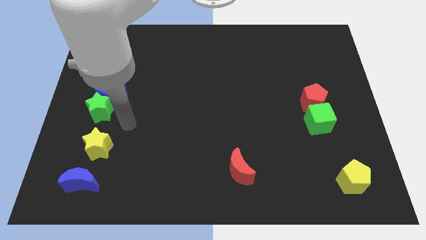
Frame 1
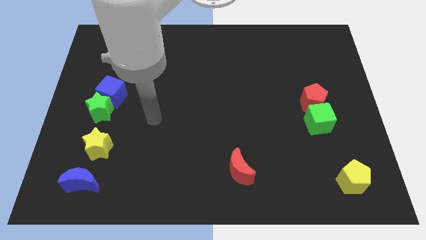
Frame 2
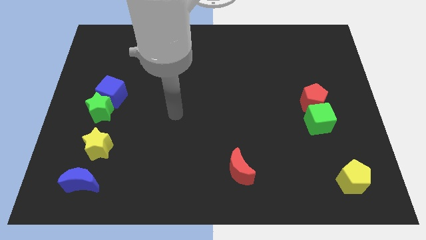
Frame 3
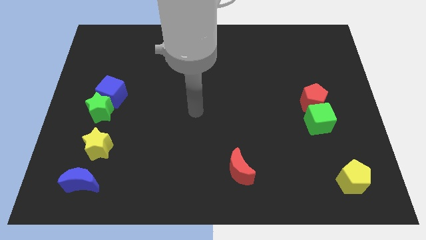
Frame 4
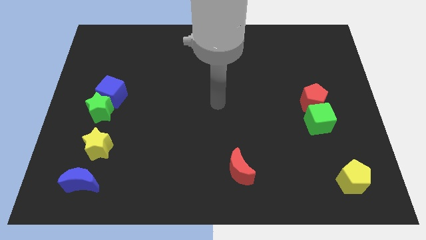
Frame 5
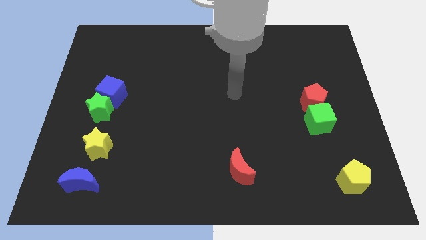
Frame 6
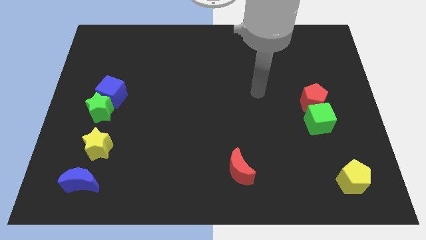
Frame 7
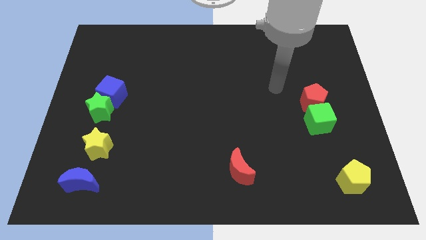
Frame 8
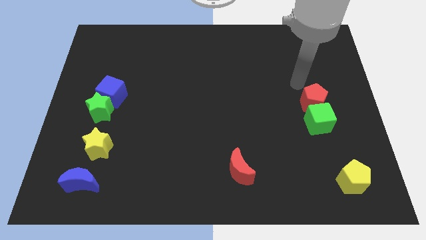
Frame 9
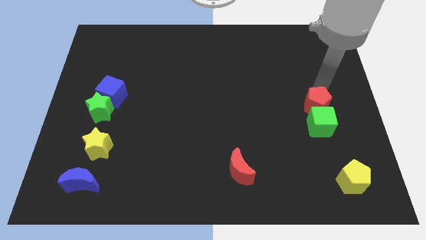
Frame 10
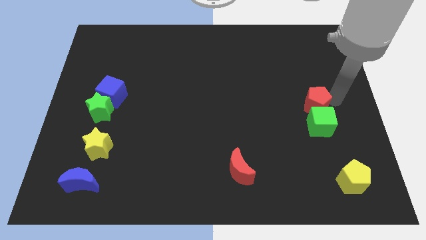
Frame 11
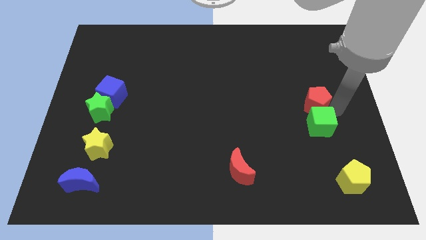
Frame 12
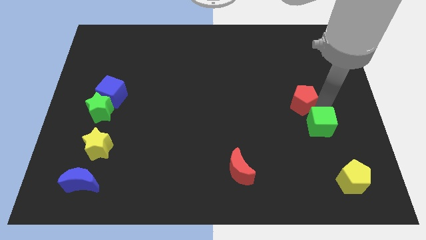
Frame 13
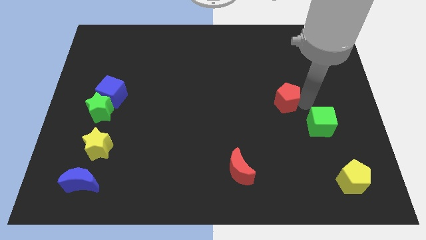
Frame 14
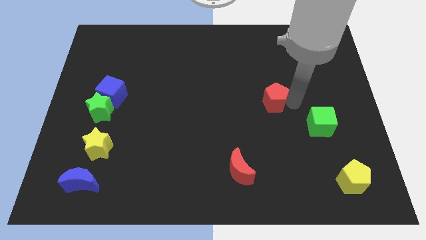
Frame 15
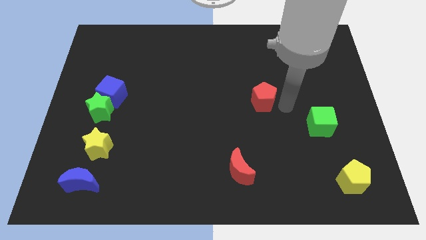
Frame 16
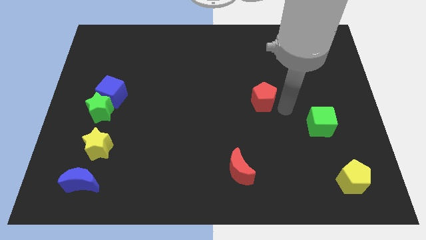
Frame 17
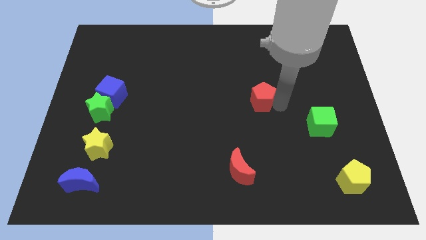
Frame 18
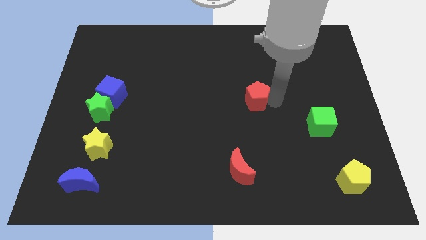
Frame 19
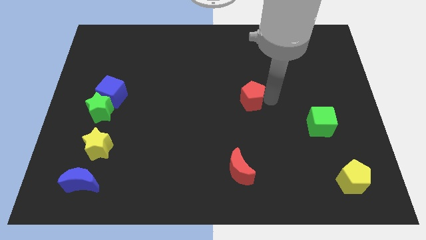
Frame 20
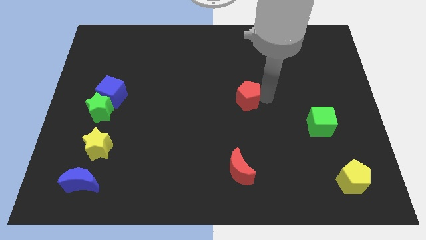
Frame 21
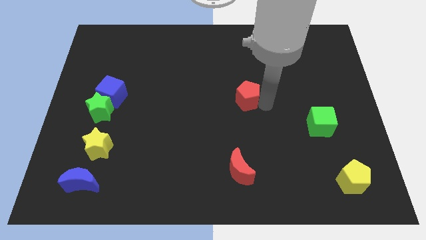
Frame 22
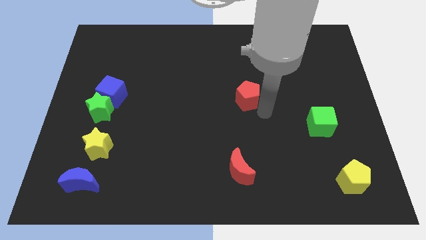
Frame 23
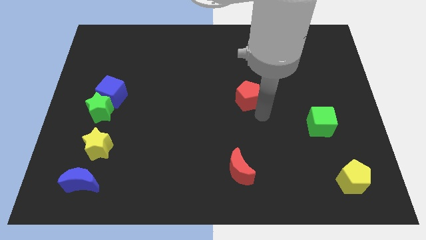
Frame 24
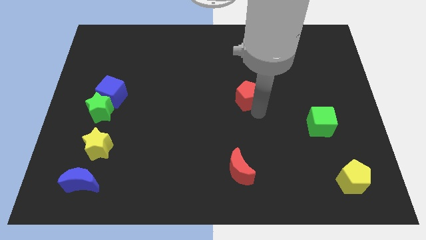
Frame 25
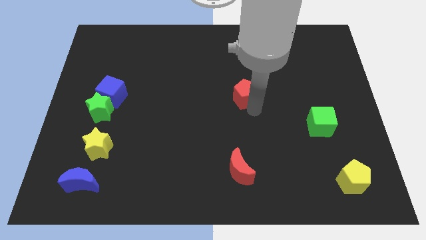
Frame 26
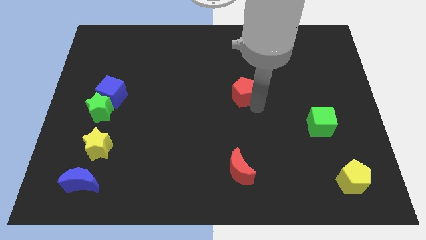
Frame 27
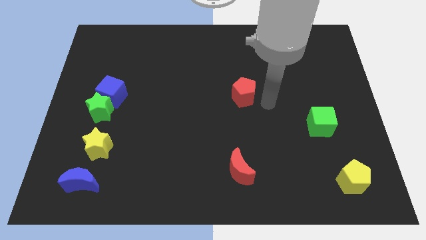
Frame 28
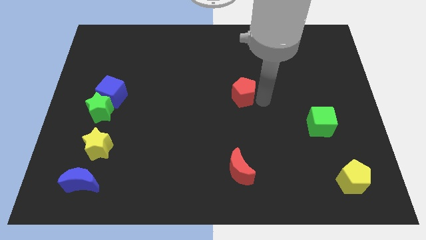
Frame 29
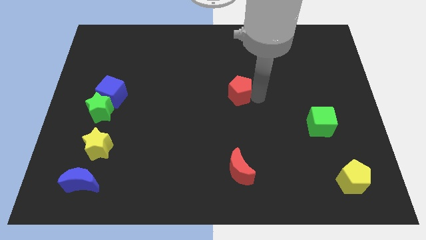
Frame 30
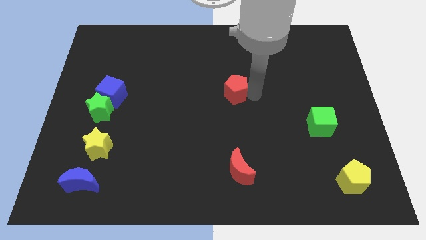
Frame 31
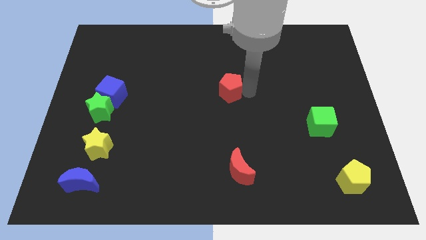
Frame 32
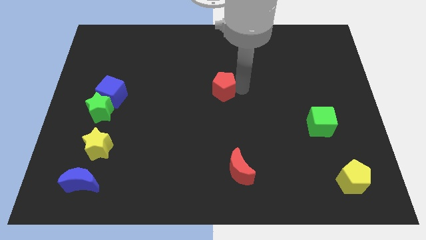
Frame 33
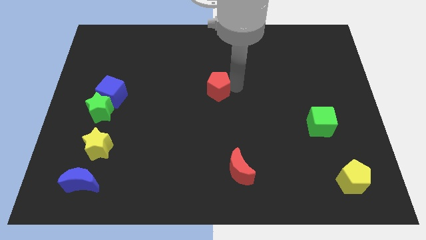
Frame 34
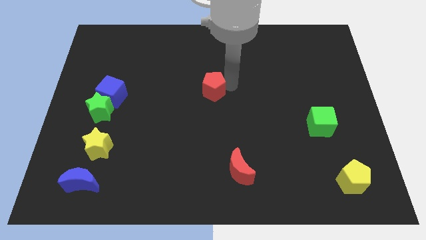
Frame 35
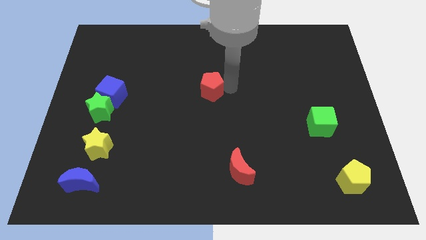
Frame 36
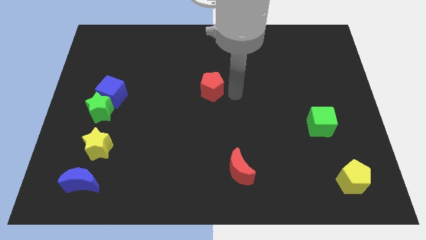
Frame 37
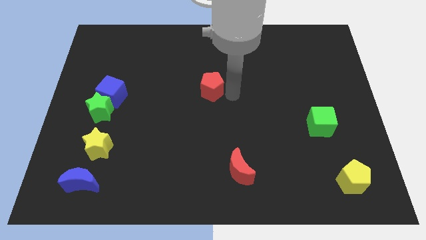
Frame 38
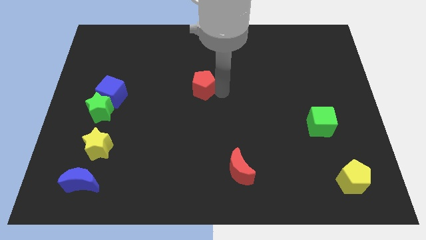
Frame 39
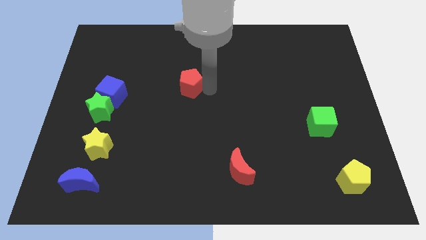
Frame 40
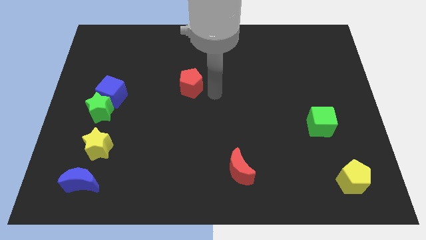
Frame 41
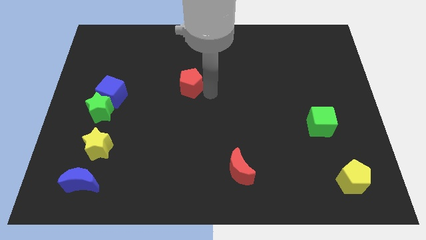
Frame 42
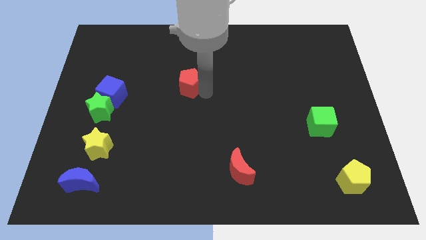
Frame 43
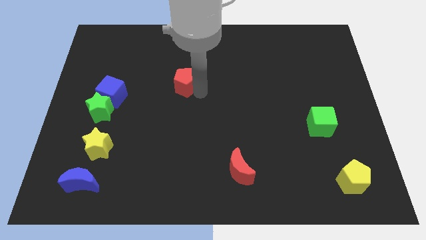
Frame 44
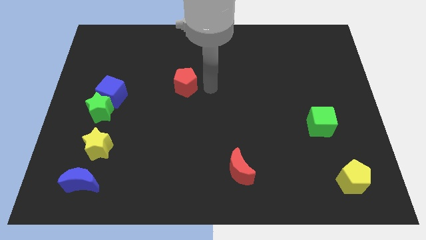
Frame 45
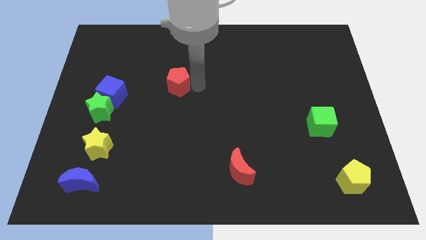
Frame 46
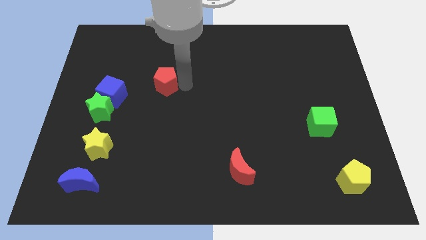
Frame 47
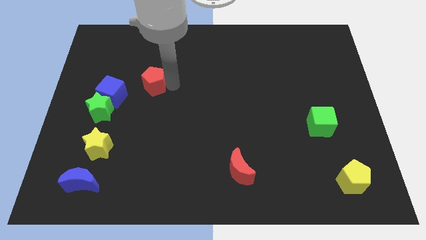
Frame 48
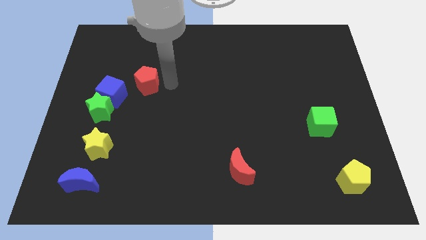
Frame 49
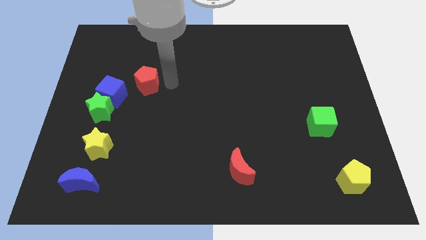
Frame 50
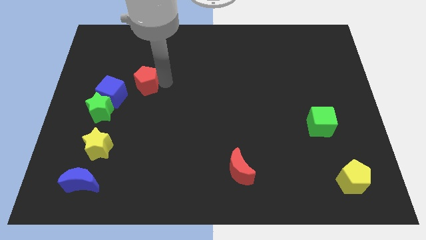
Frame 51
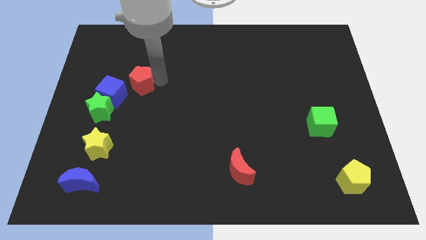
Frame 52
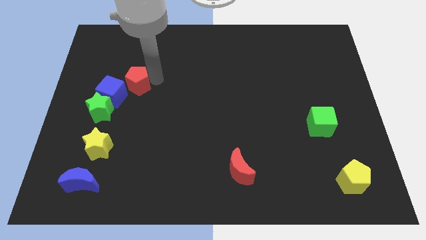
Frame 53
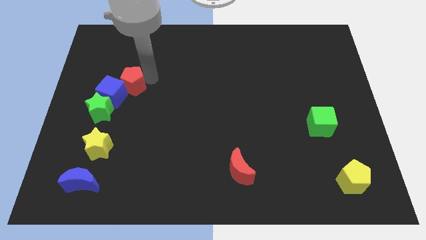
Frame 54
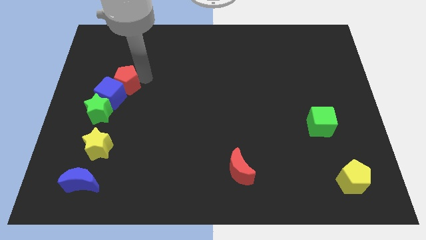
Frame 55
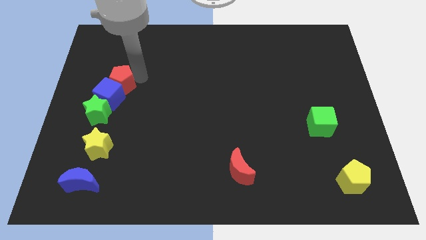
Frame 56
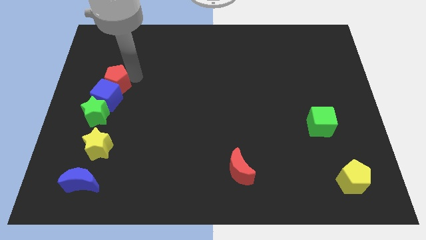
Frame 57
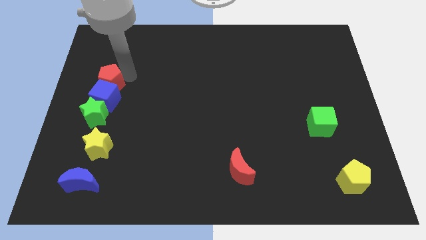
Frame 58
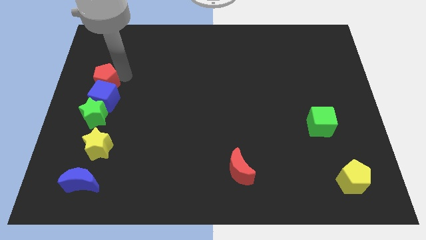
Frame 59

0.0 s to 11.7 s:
slide the red pentagon to the center left

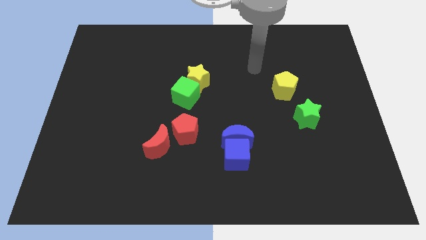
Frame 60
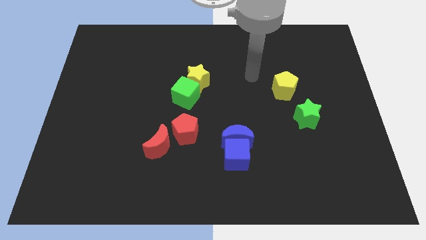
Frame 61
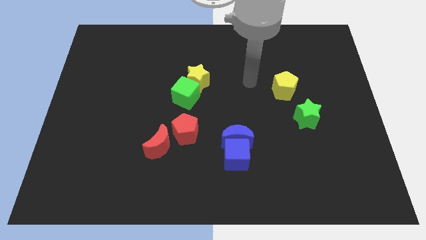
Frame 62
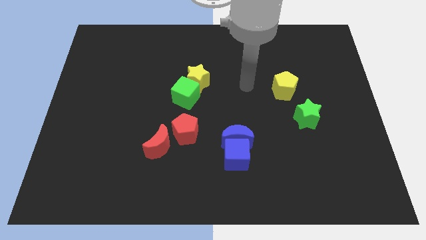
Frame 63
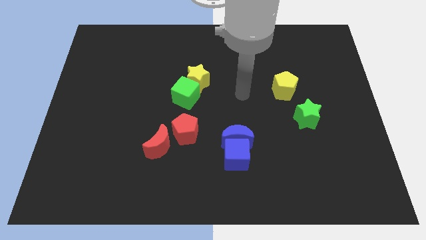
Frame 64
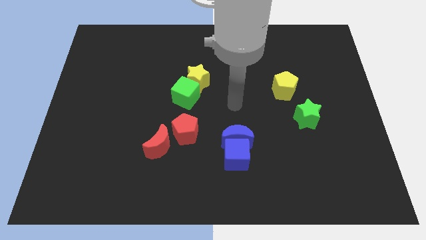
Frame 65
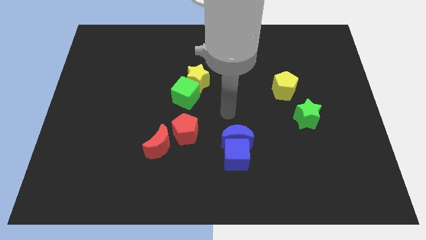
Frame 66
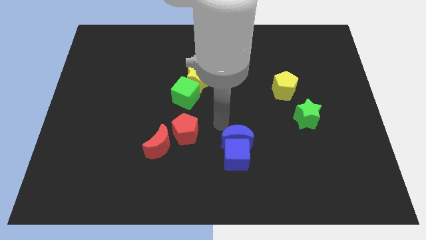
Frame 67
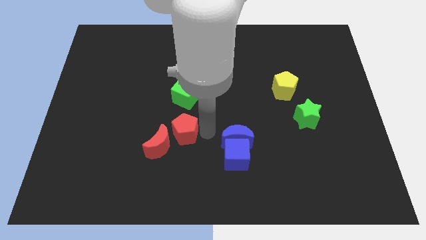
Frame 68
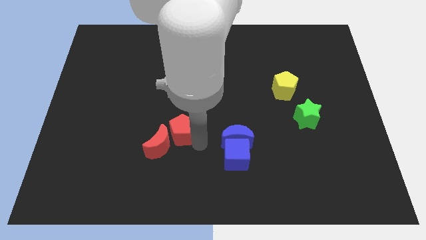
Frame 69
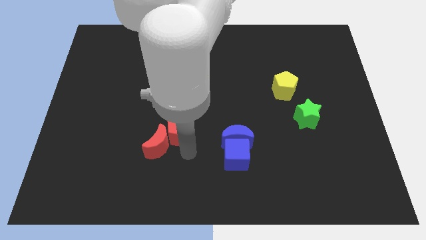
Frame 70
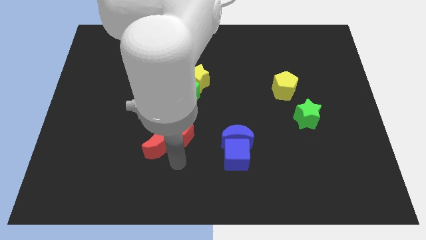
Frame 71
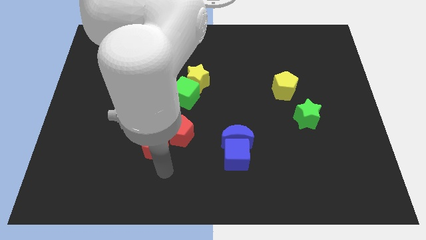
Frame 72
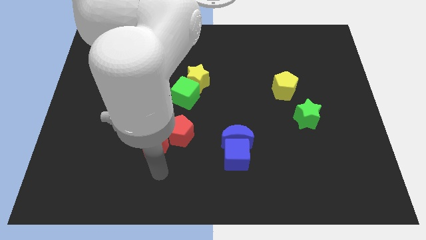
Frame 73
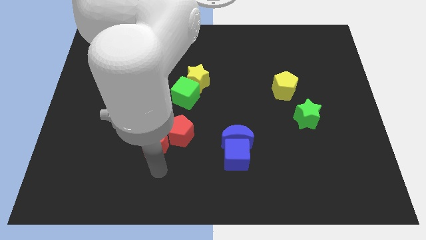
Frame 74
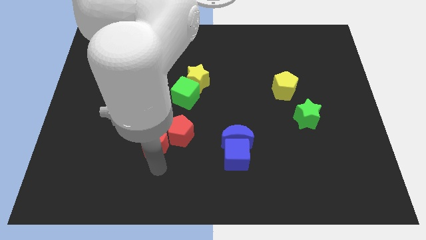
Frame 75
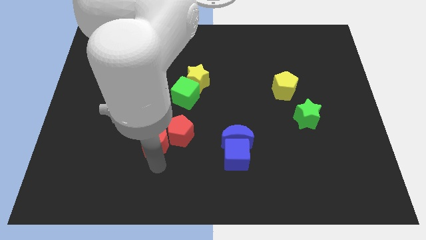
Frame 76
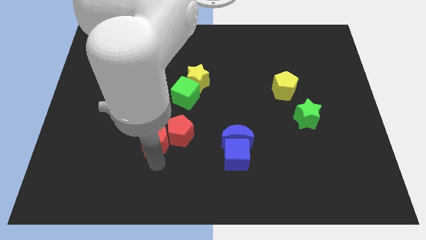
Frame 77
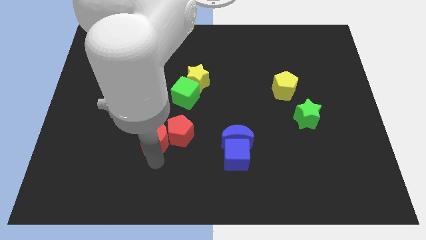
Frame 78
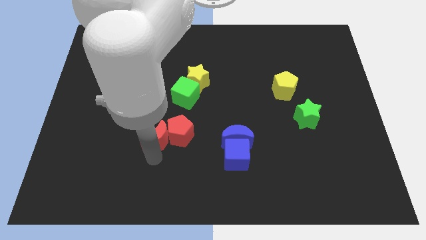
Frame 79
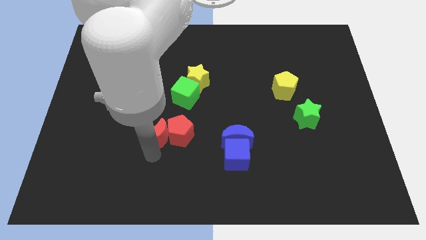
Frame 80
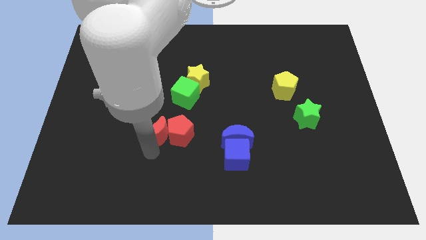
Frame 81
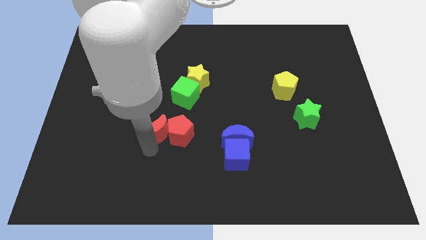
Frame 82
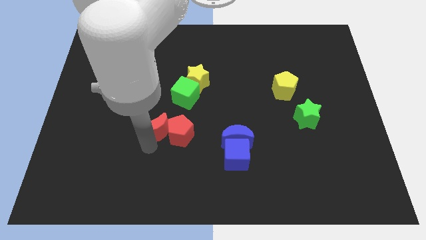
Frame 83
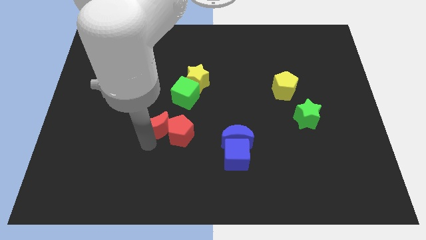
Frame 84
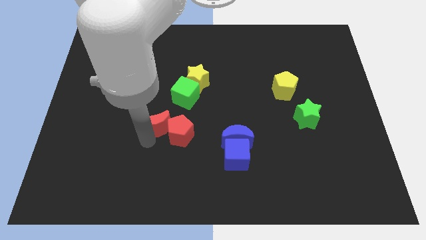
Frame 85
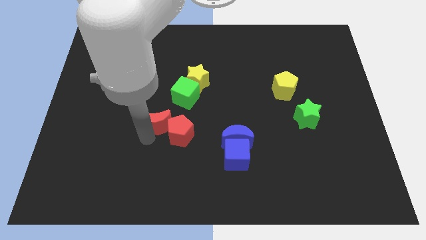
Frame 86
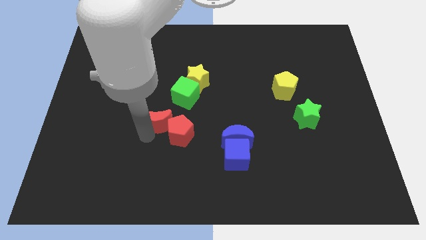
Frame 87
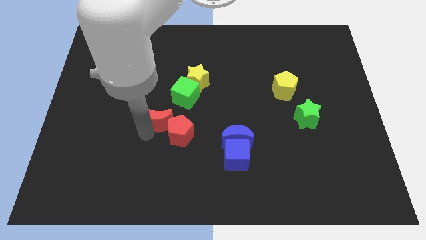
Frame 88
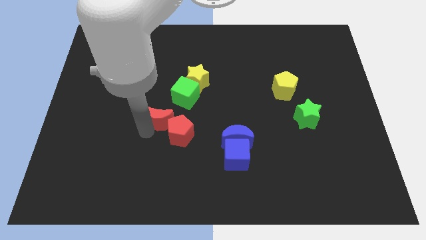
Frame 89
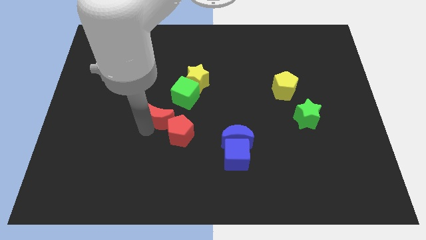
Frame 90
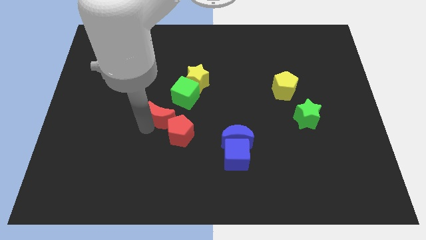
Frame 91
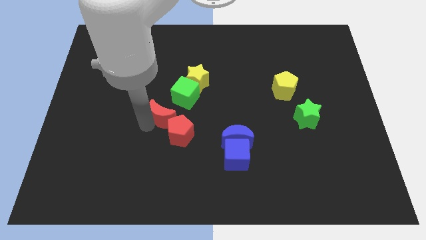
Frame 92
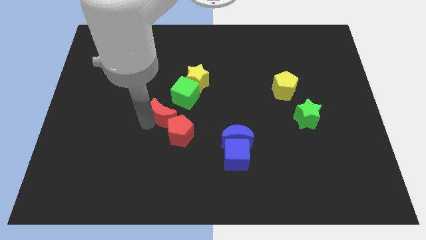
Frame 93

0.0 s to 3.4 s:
push the red moon to the center of the board
